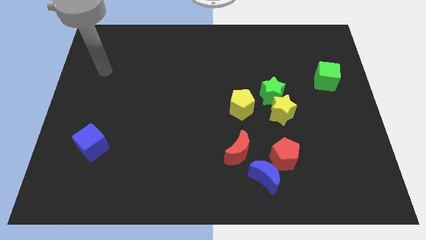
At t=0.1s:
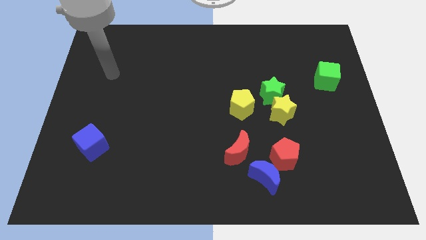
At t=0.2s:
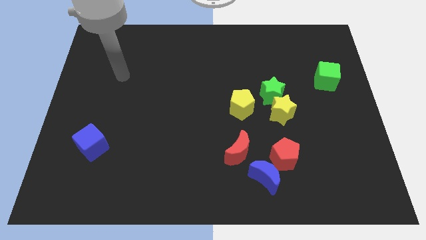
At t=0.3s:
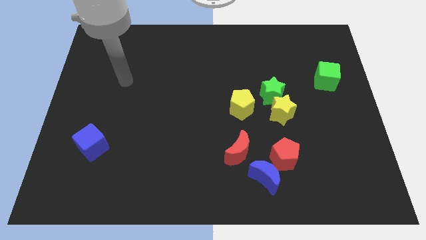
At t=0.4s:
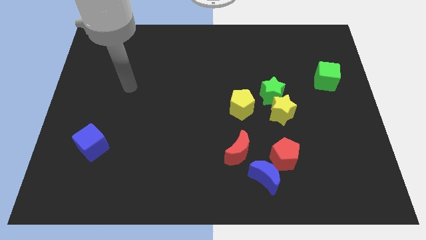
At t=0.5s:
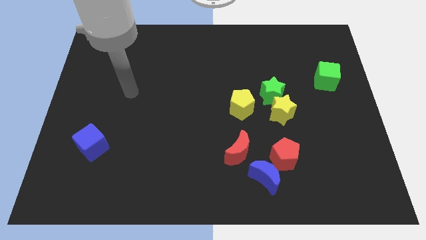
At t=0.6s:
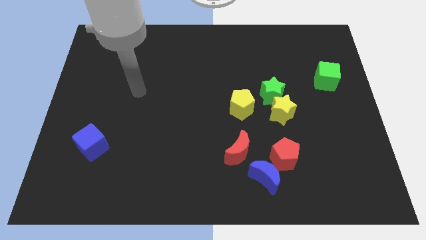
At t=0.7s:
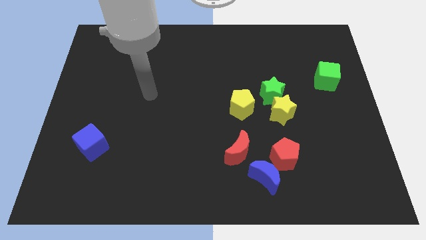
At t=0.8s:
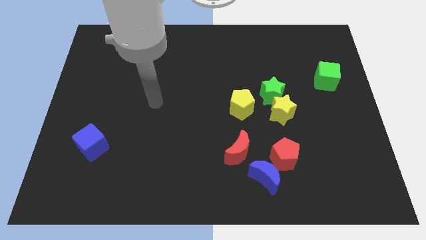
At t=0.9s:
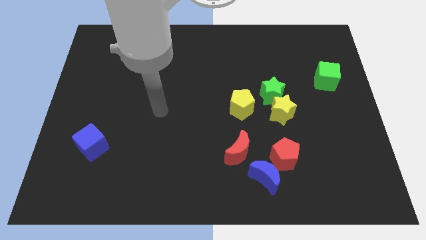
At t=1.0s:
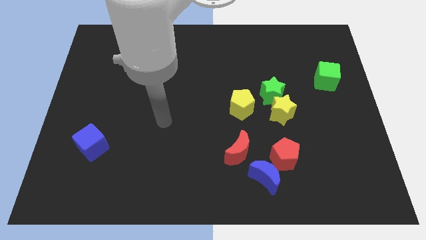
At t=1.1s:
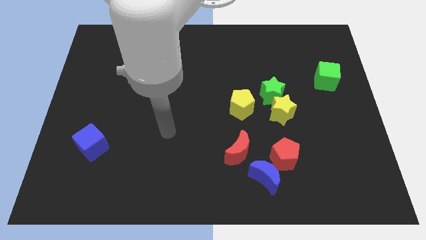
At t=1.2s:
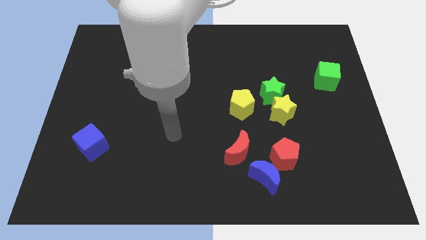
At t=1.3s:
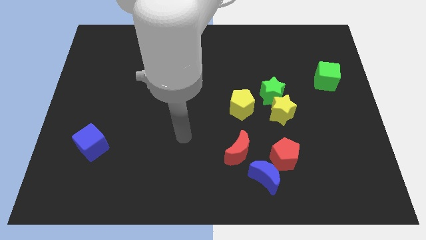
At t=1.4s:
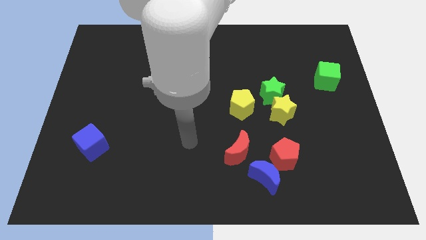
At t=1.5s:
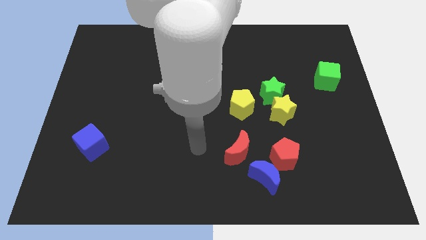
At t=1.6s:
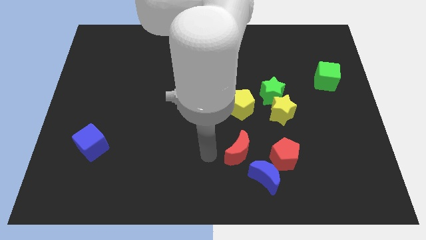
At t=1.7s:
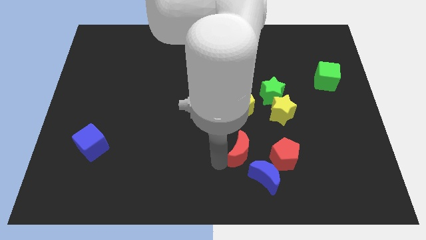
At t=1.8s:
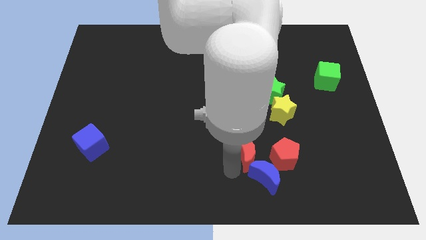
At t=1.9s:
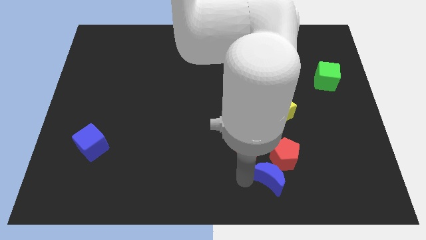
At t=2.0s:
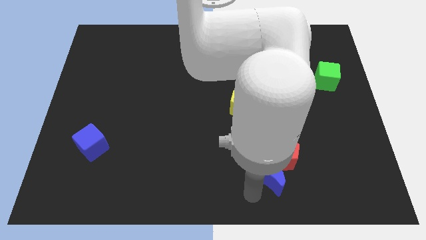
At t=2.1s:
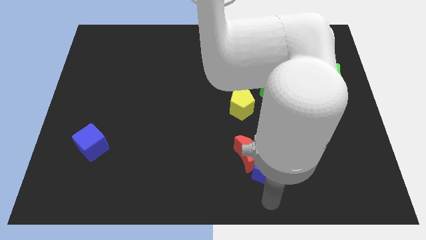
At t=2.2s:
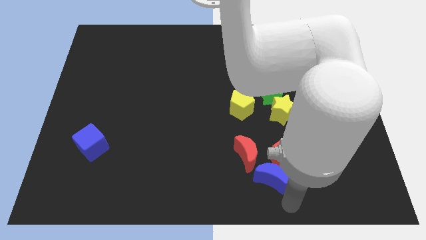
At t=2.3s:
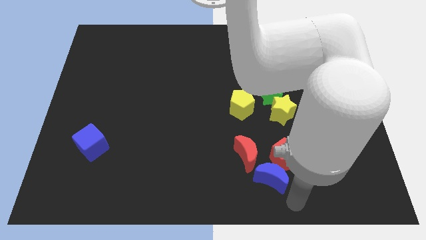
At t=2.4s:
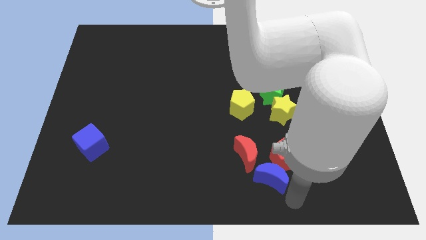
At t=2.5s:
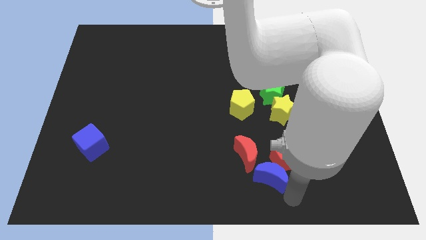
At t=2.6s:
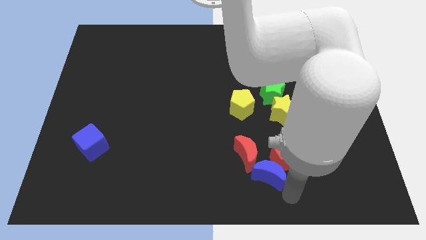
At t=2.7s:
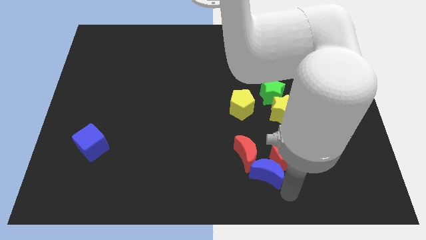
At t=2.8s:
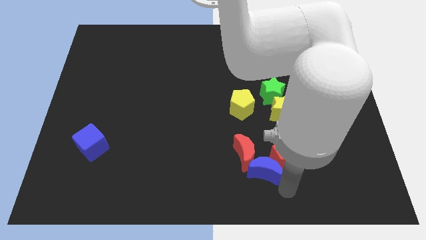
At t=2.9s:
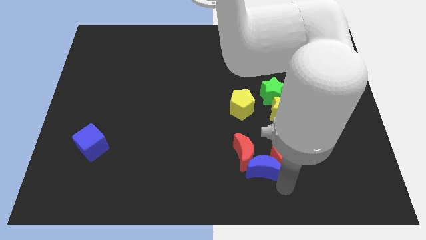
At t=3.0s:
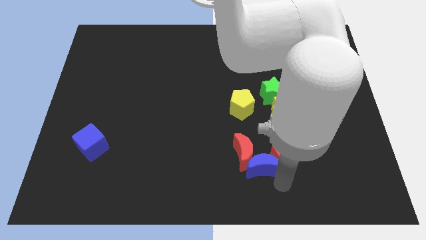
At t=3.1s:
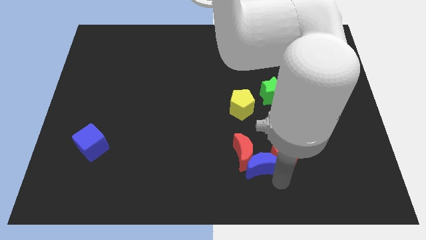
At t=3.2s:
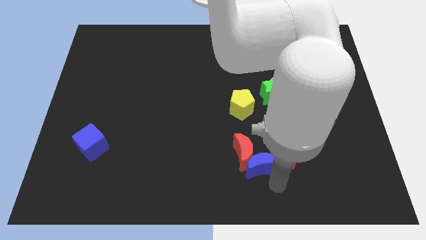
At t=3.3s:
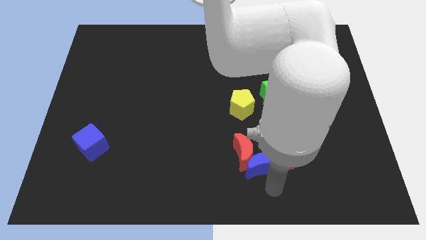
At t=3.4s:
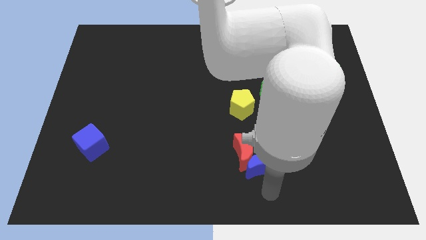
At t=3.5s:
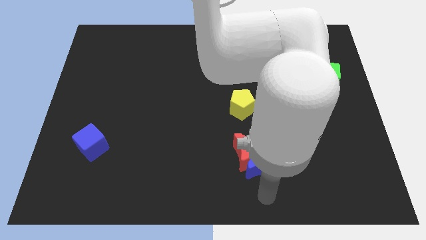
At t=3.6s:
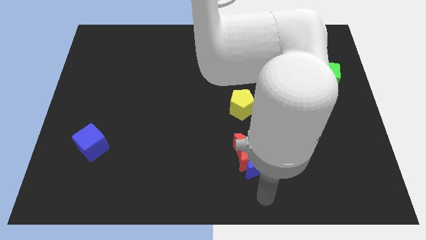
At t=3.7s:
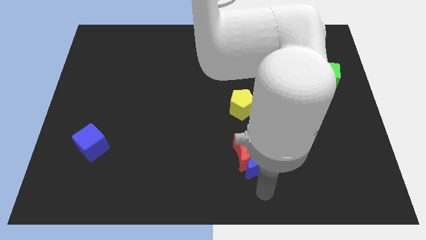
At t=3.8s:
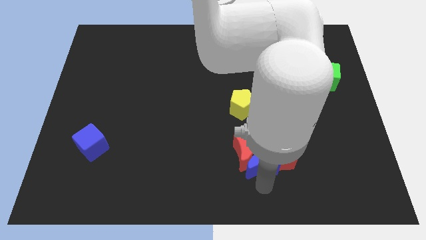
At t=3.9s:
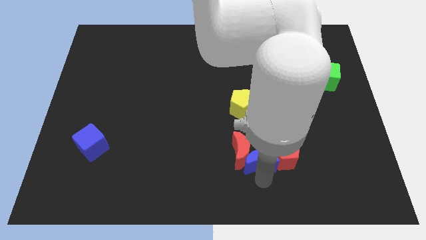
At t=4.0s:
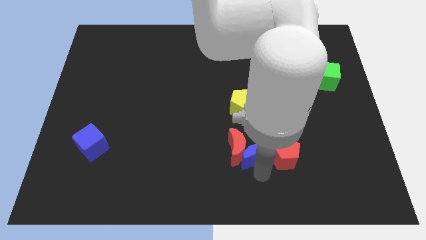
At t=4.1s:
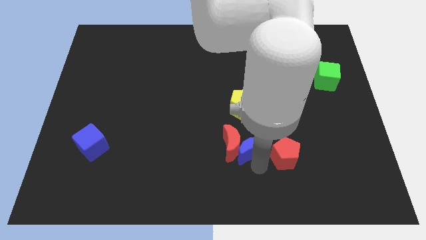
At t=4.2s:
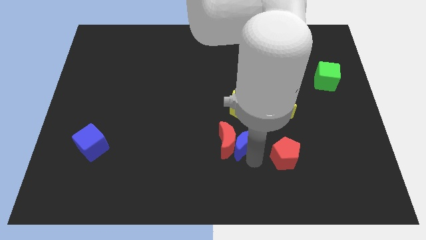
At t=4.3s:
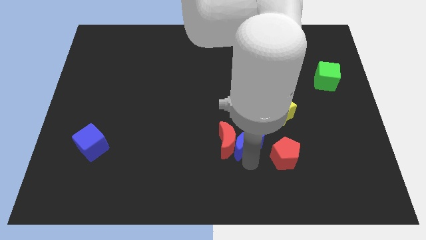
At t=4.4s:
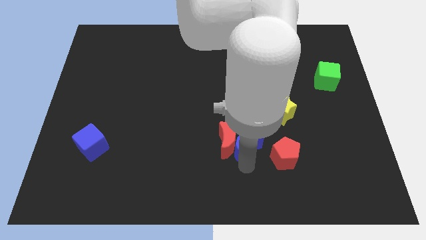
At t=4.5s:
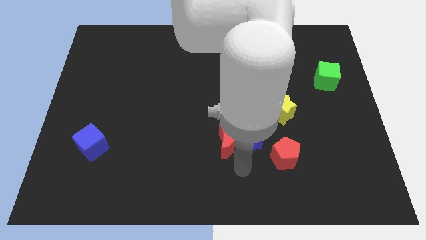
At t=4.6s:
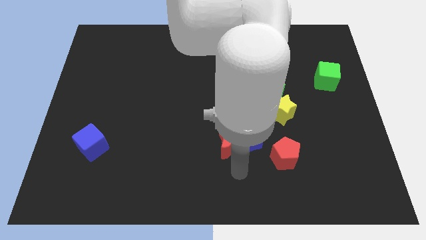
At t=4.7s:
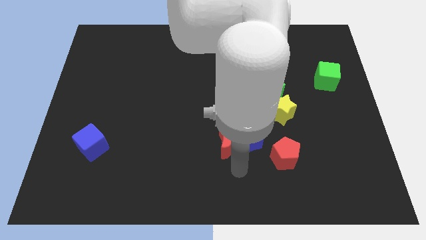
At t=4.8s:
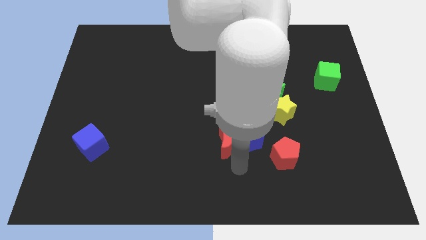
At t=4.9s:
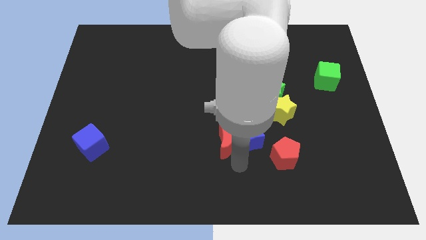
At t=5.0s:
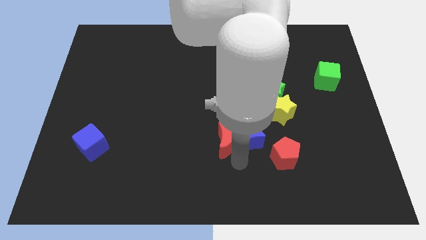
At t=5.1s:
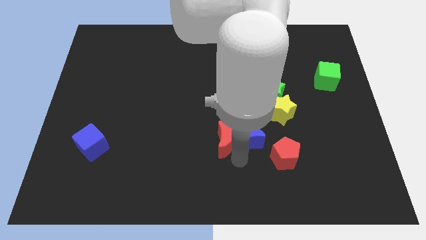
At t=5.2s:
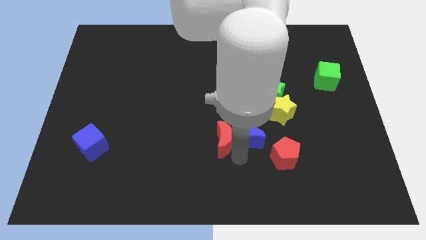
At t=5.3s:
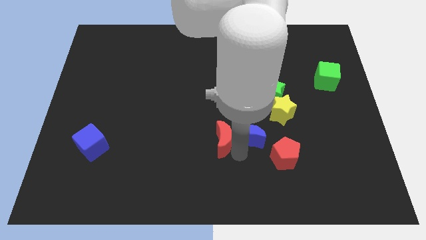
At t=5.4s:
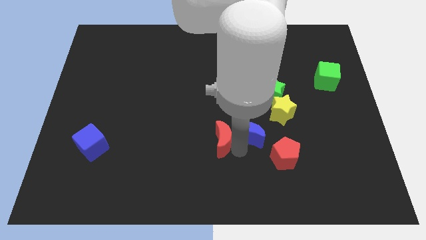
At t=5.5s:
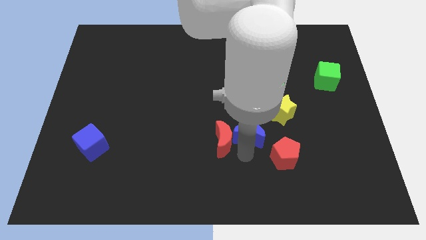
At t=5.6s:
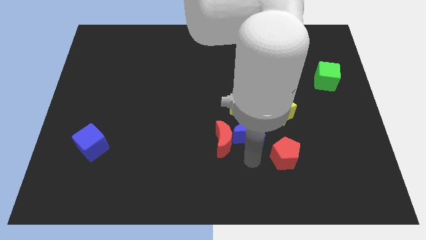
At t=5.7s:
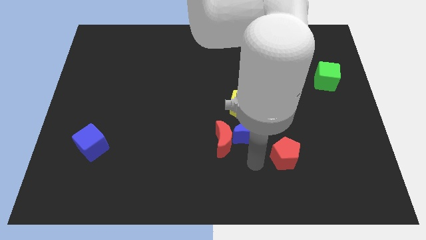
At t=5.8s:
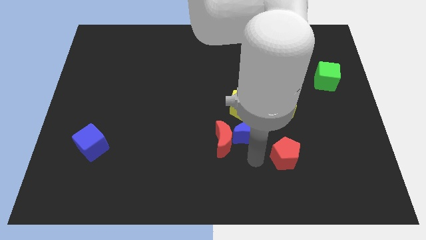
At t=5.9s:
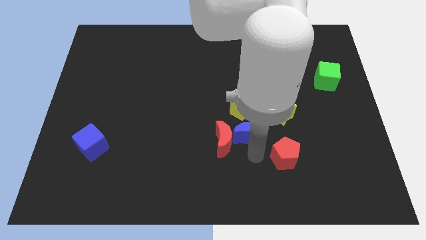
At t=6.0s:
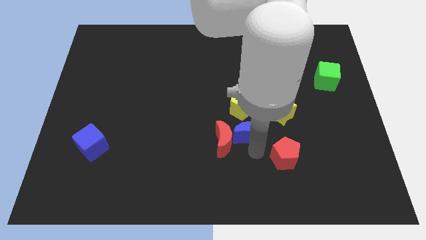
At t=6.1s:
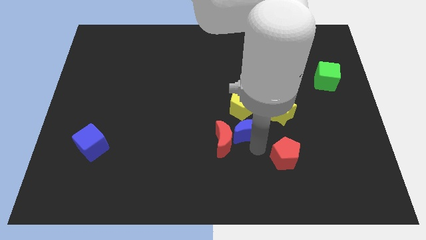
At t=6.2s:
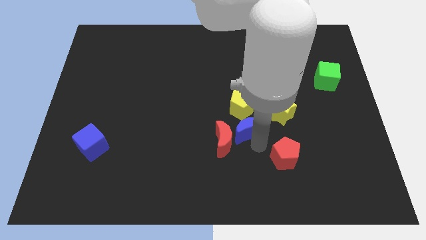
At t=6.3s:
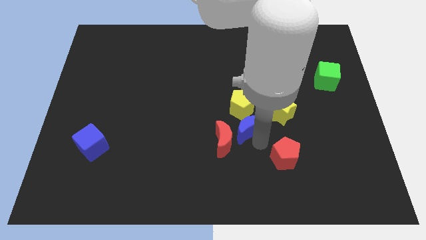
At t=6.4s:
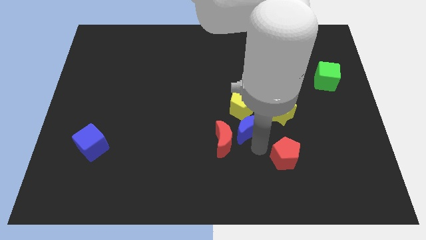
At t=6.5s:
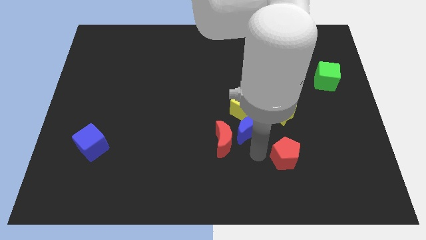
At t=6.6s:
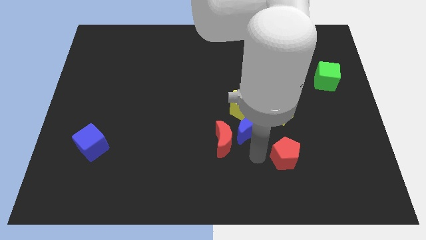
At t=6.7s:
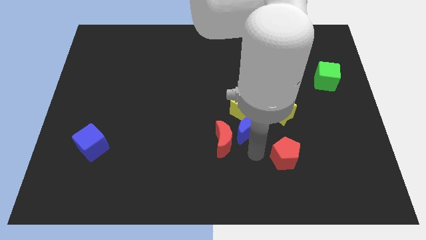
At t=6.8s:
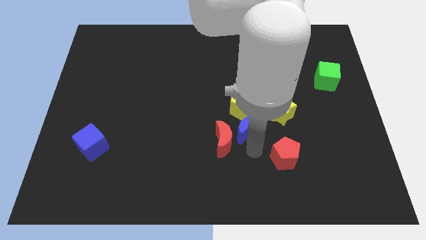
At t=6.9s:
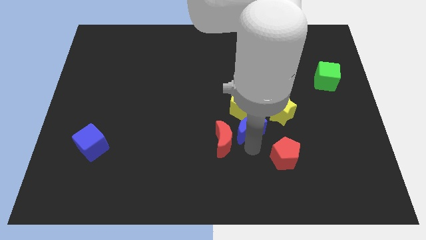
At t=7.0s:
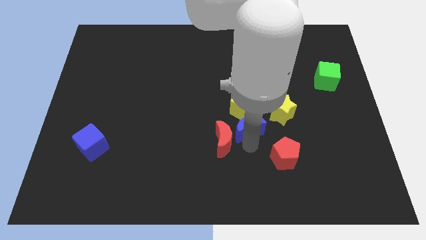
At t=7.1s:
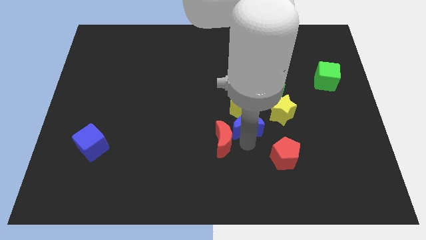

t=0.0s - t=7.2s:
push the blue moon close to the yellow pentagon

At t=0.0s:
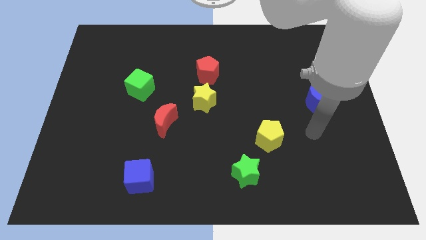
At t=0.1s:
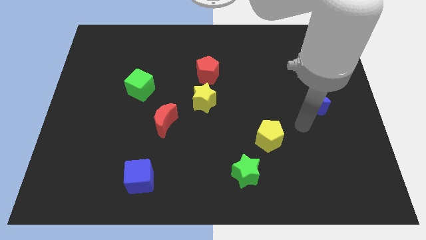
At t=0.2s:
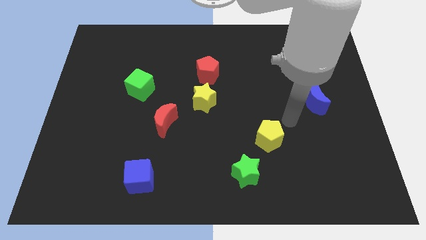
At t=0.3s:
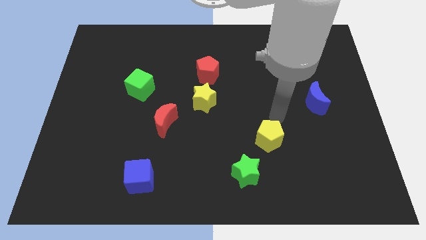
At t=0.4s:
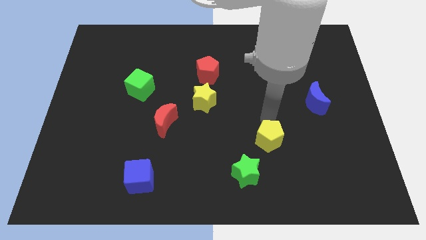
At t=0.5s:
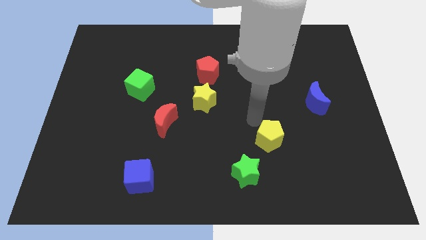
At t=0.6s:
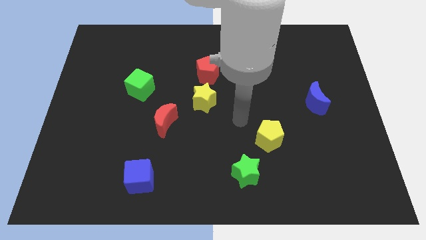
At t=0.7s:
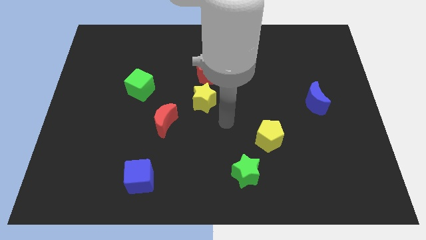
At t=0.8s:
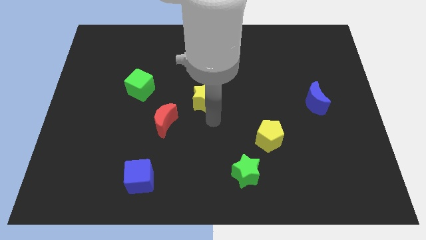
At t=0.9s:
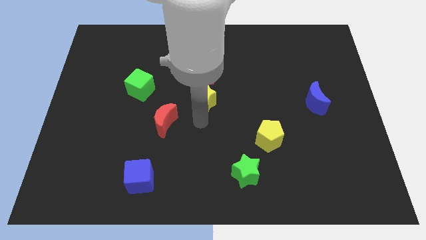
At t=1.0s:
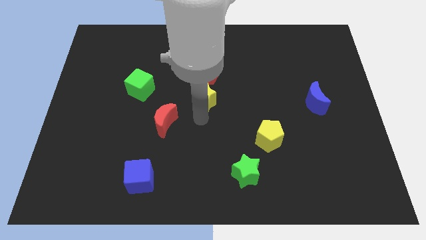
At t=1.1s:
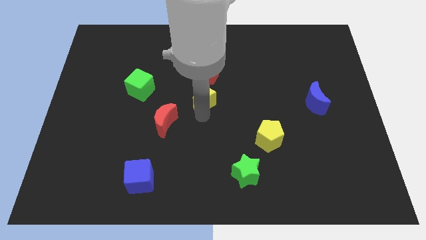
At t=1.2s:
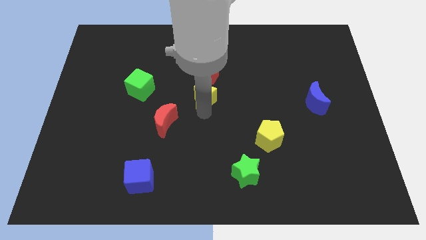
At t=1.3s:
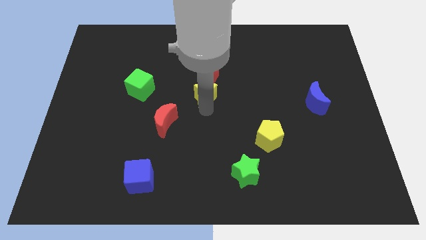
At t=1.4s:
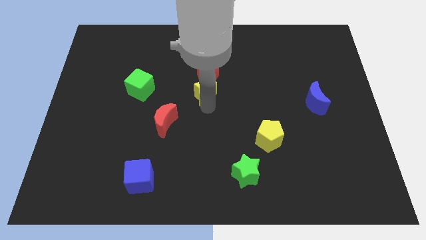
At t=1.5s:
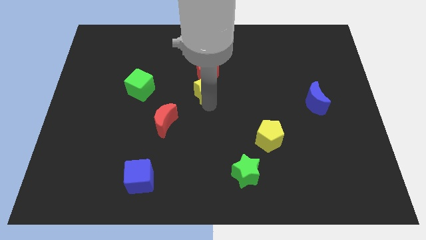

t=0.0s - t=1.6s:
put the yellow star close to the red pentagon
